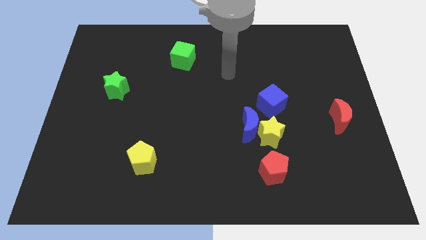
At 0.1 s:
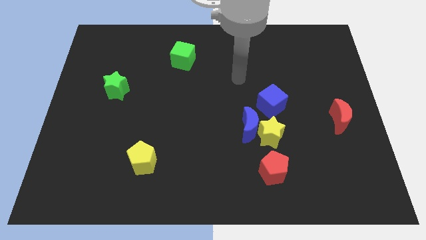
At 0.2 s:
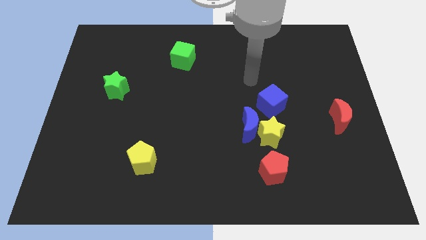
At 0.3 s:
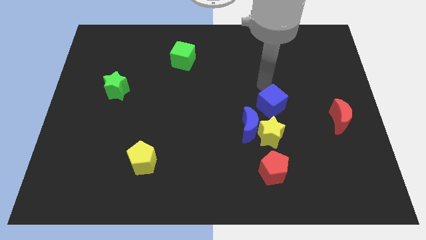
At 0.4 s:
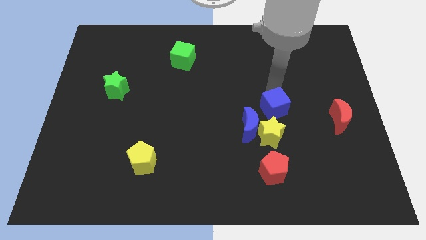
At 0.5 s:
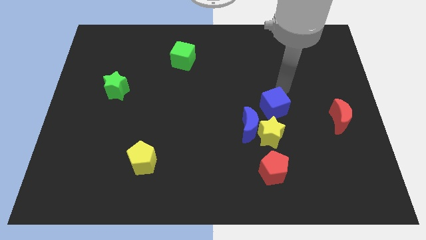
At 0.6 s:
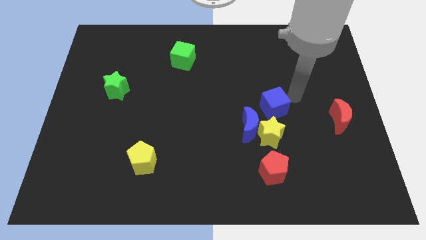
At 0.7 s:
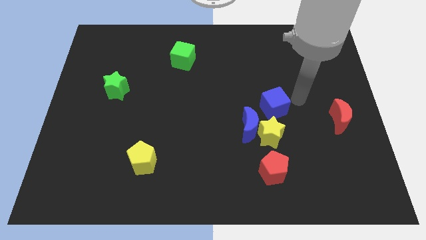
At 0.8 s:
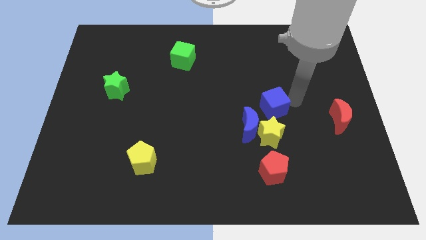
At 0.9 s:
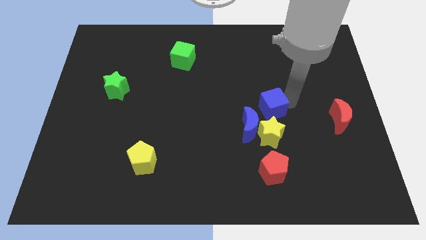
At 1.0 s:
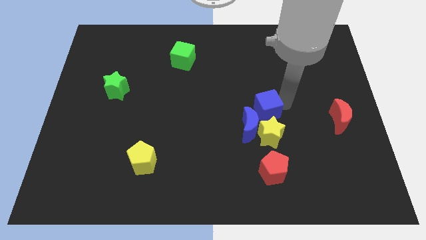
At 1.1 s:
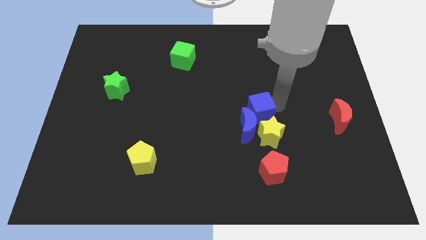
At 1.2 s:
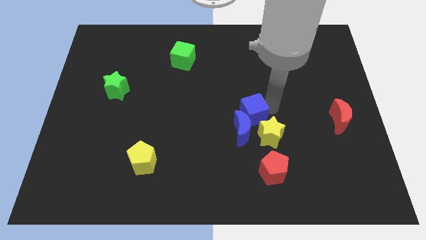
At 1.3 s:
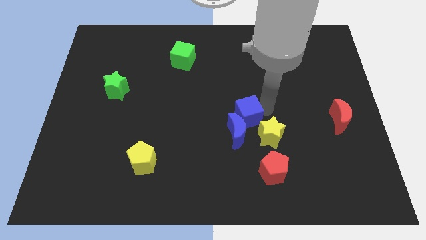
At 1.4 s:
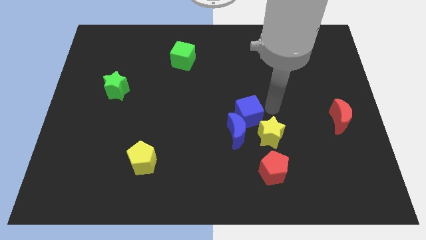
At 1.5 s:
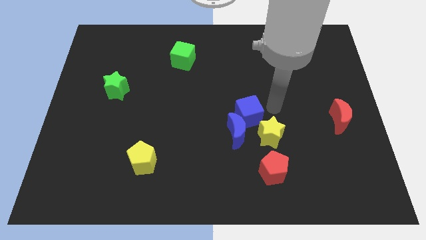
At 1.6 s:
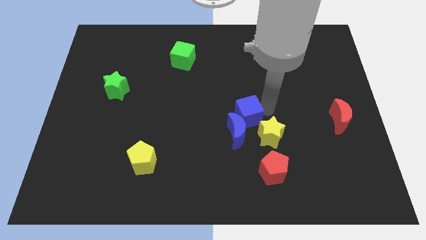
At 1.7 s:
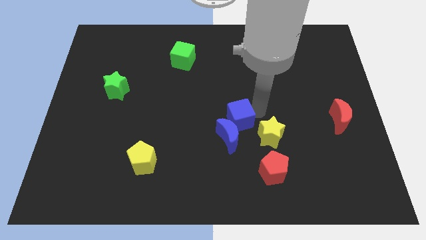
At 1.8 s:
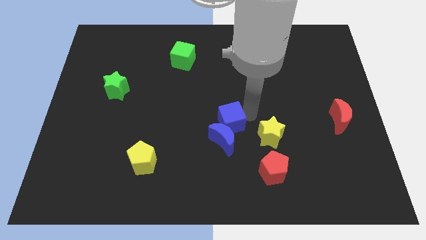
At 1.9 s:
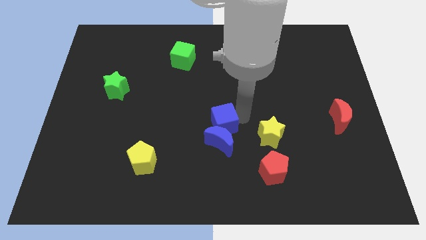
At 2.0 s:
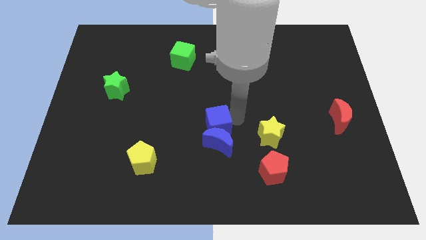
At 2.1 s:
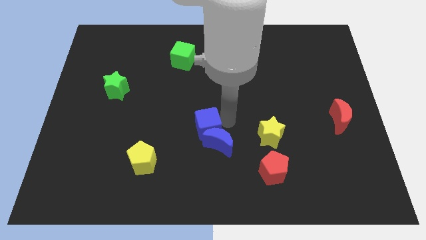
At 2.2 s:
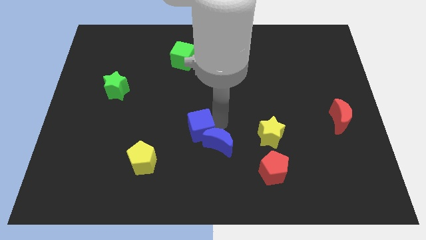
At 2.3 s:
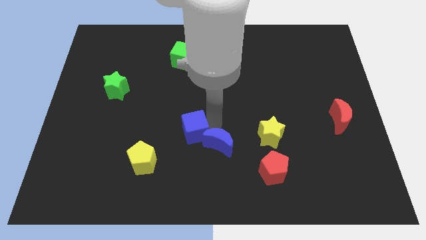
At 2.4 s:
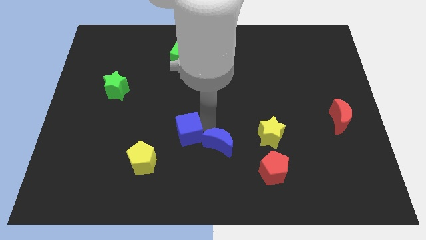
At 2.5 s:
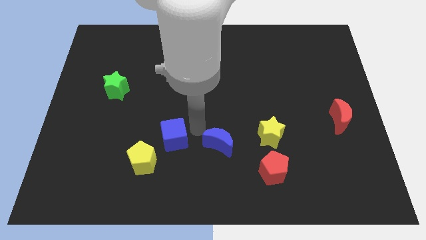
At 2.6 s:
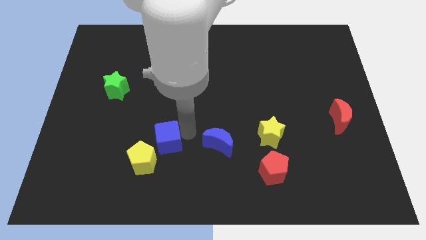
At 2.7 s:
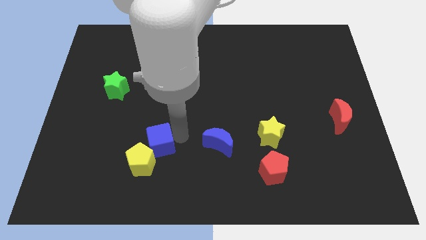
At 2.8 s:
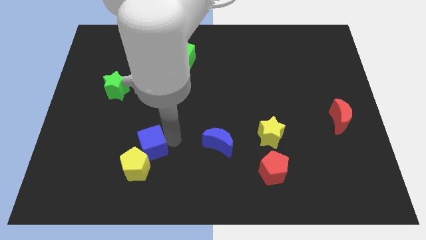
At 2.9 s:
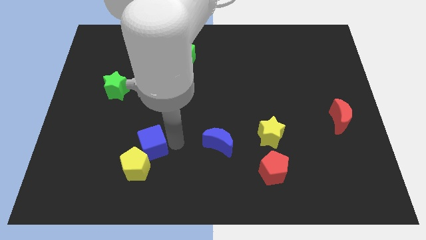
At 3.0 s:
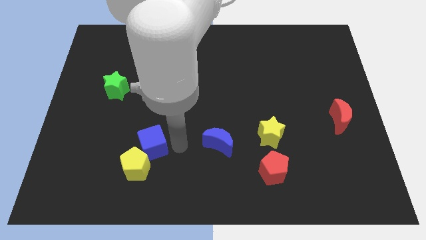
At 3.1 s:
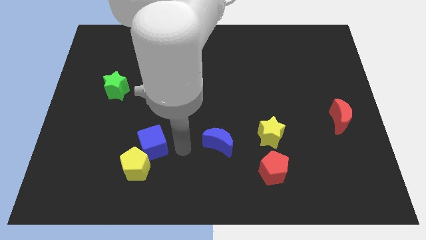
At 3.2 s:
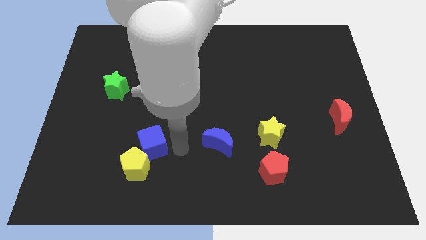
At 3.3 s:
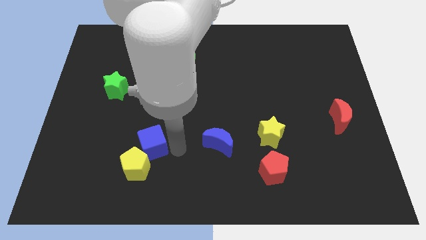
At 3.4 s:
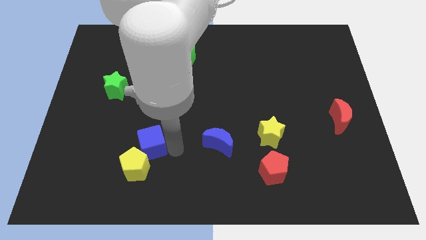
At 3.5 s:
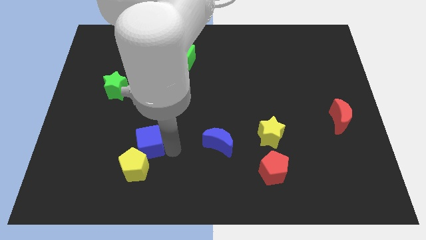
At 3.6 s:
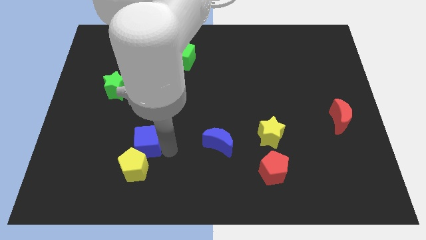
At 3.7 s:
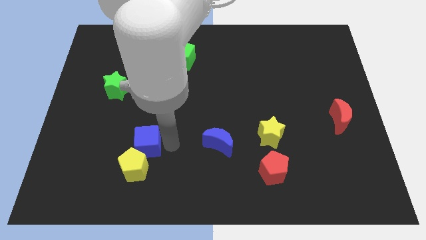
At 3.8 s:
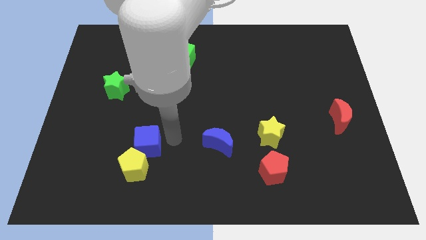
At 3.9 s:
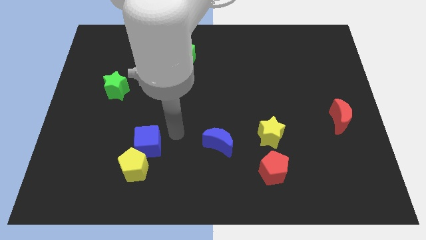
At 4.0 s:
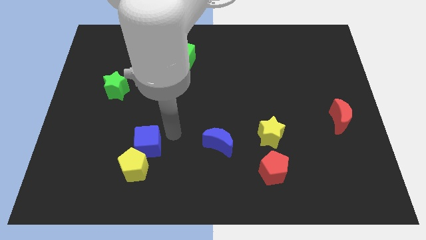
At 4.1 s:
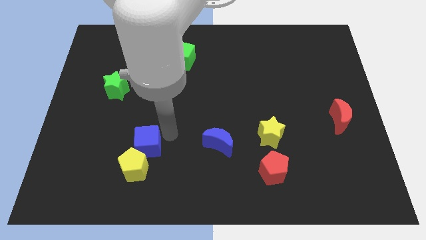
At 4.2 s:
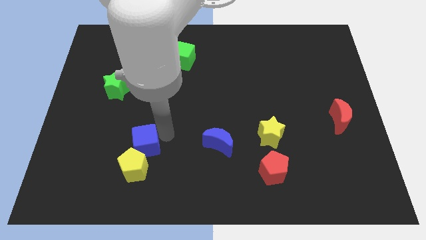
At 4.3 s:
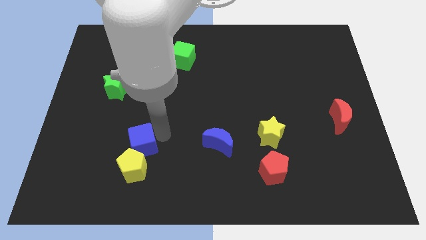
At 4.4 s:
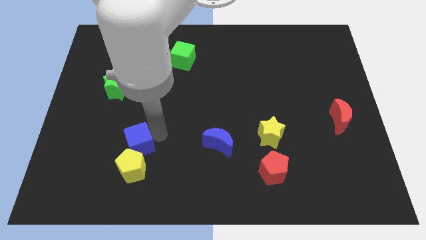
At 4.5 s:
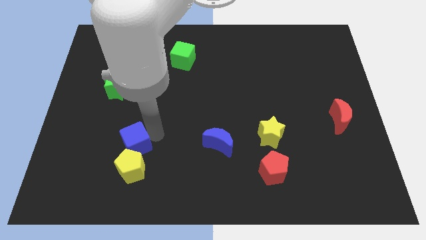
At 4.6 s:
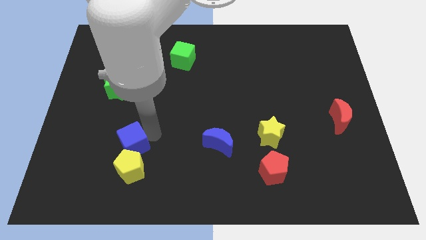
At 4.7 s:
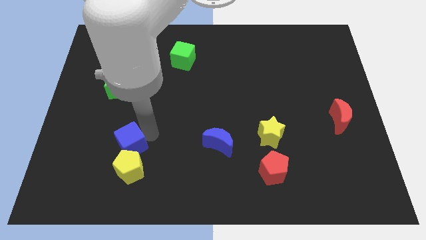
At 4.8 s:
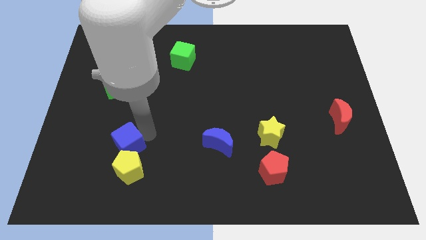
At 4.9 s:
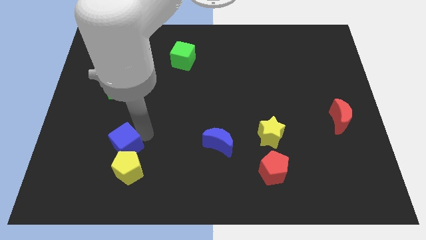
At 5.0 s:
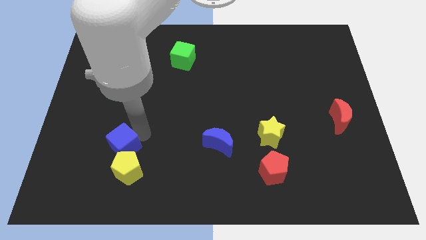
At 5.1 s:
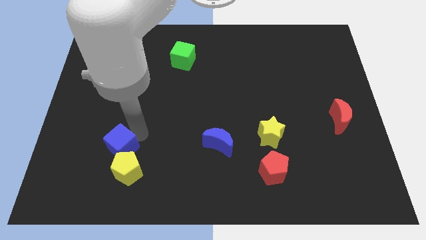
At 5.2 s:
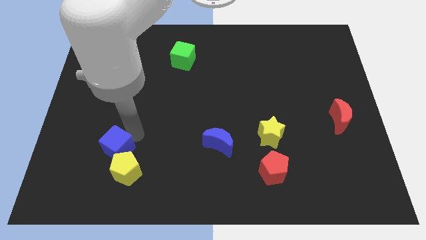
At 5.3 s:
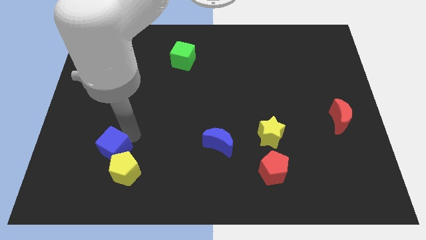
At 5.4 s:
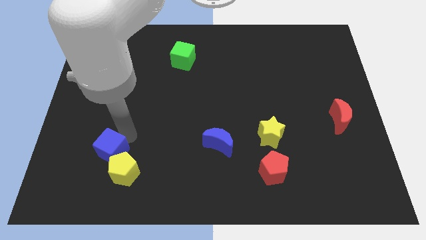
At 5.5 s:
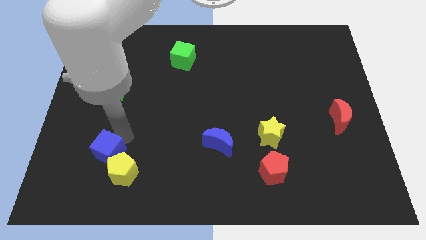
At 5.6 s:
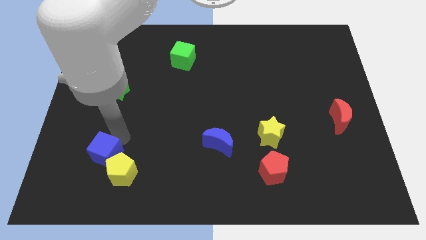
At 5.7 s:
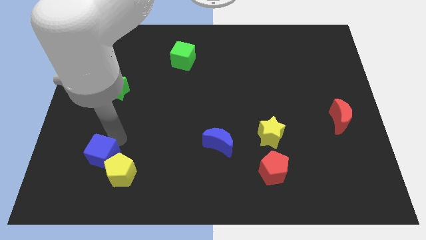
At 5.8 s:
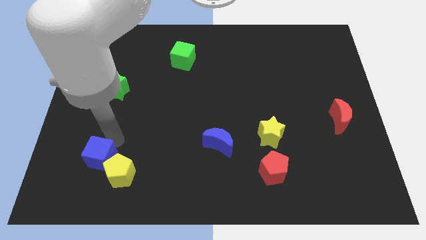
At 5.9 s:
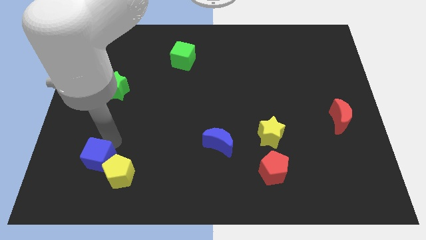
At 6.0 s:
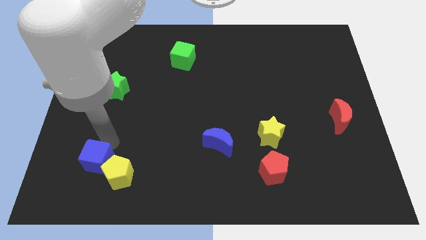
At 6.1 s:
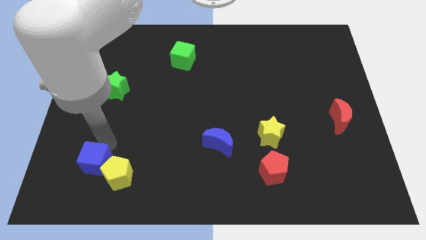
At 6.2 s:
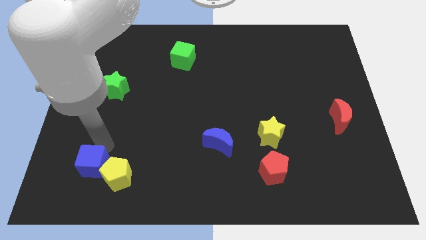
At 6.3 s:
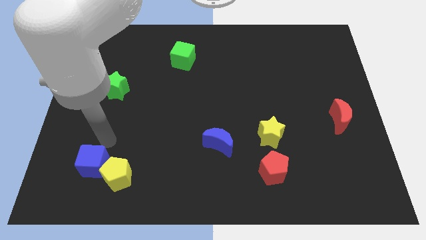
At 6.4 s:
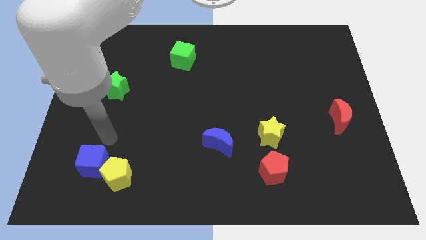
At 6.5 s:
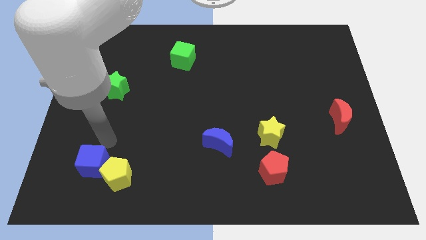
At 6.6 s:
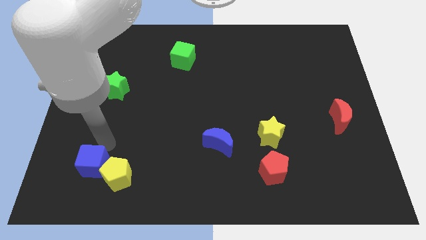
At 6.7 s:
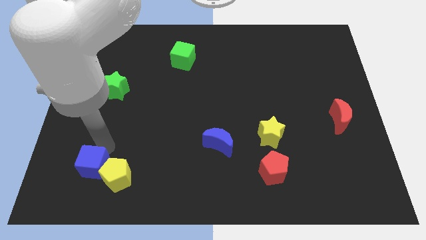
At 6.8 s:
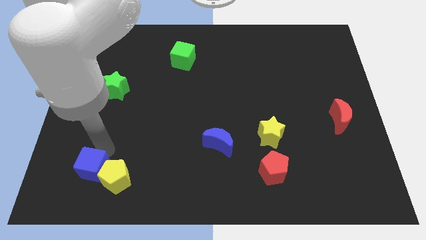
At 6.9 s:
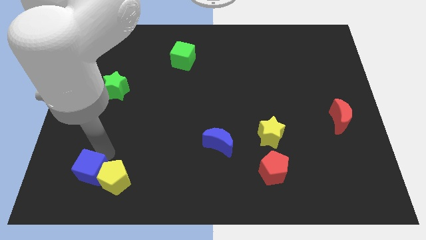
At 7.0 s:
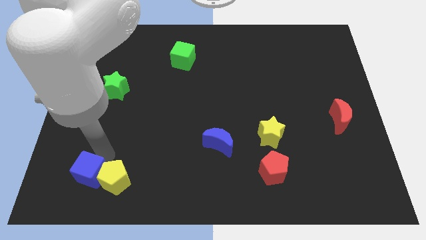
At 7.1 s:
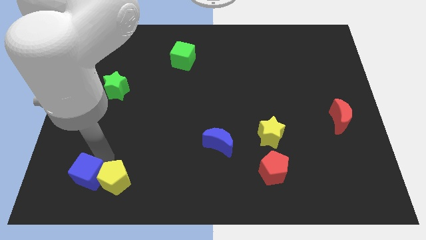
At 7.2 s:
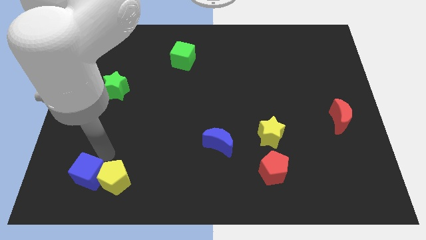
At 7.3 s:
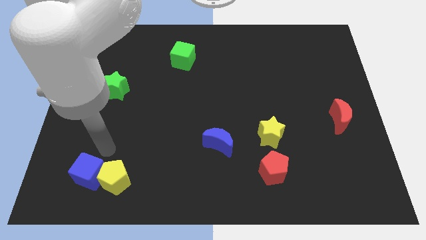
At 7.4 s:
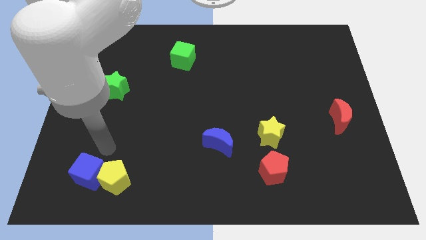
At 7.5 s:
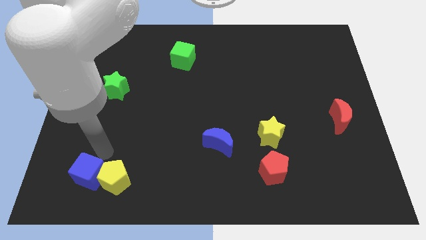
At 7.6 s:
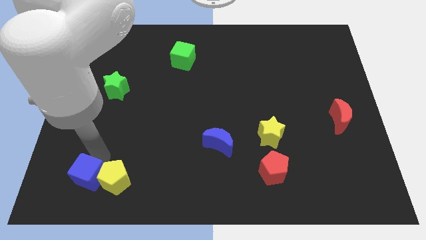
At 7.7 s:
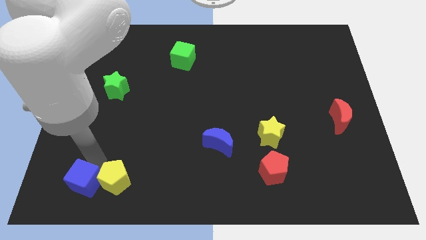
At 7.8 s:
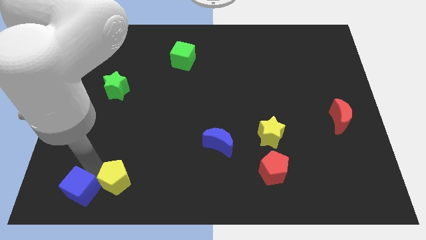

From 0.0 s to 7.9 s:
slide the blue cube to the lower left corner
